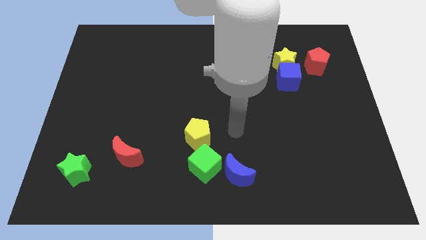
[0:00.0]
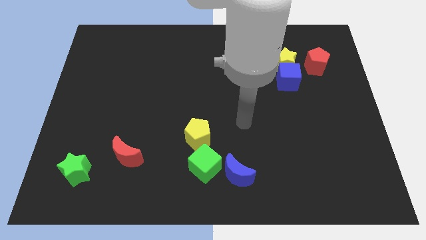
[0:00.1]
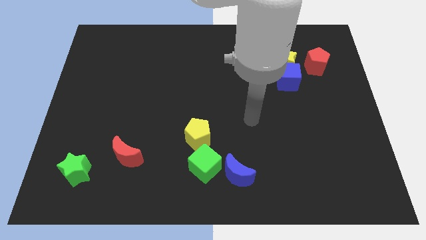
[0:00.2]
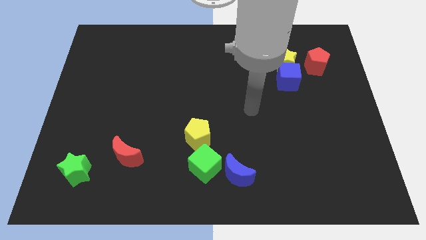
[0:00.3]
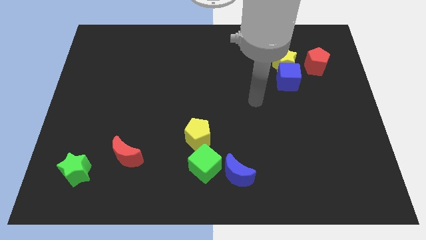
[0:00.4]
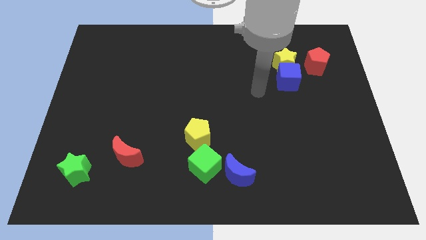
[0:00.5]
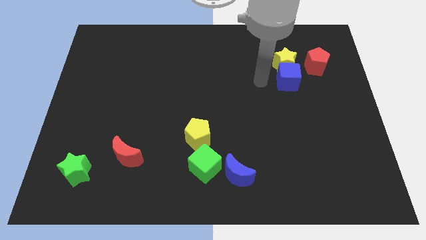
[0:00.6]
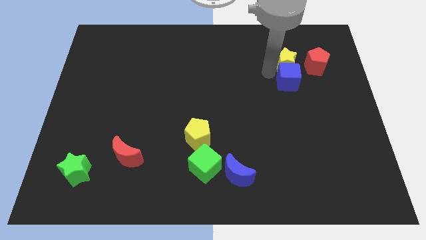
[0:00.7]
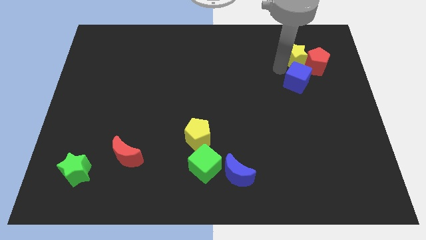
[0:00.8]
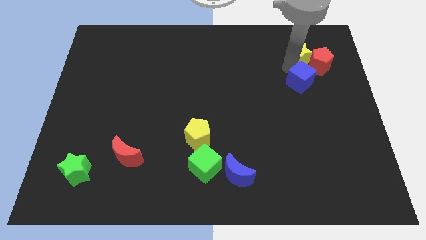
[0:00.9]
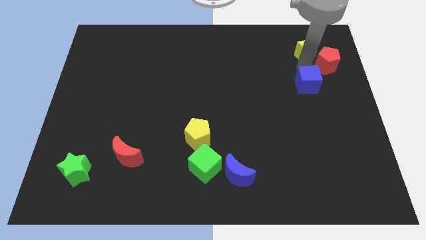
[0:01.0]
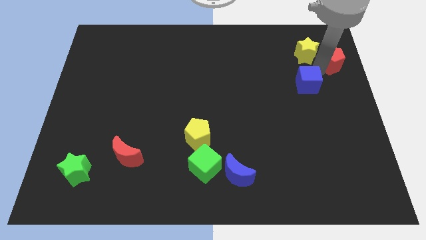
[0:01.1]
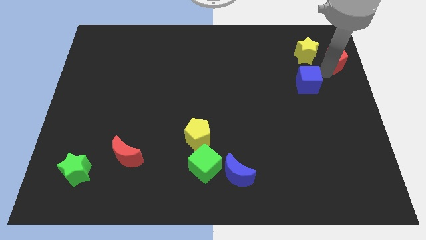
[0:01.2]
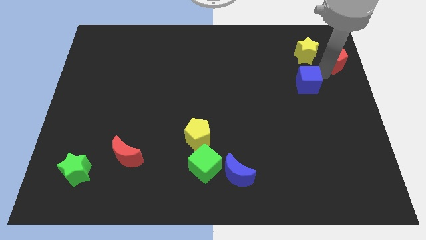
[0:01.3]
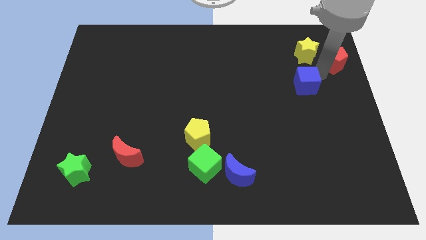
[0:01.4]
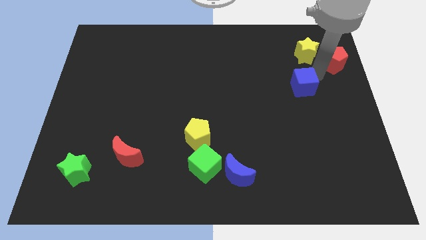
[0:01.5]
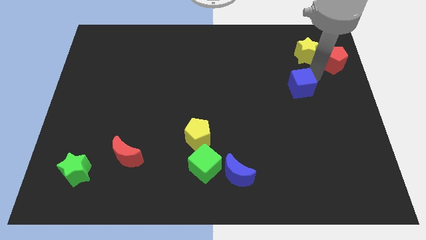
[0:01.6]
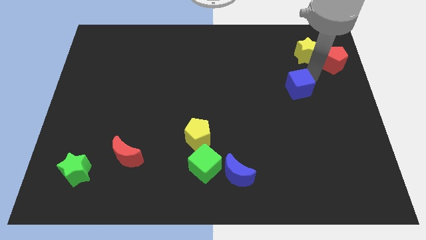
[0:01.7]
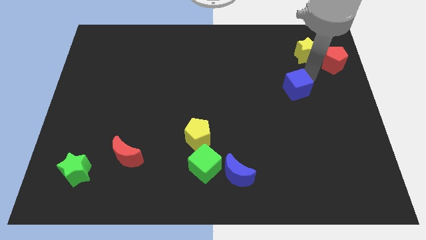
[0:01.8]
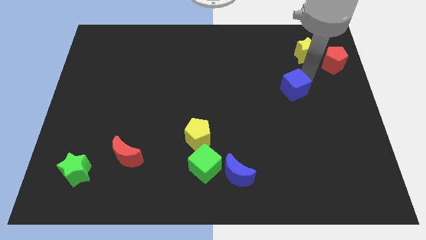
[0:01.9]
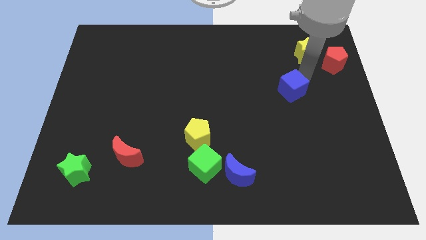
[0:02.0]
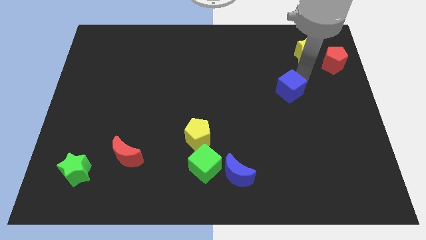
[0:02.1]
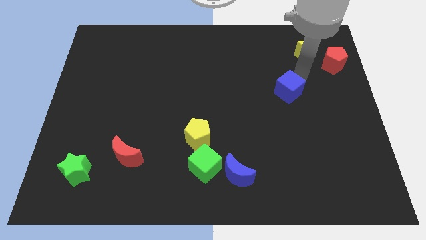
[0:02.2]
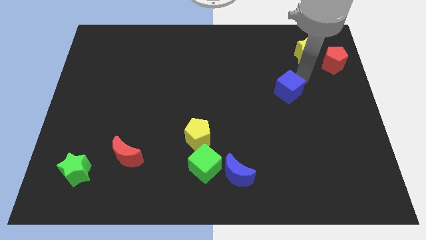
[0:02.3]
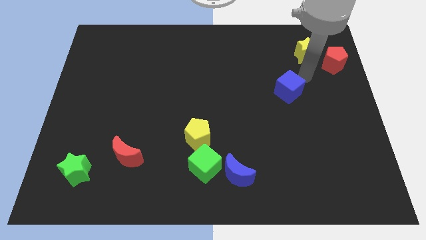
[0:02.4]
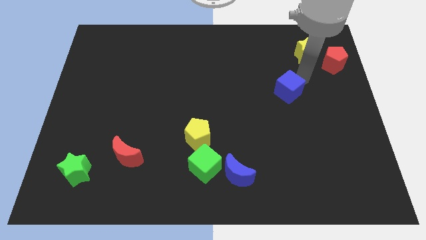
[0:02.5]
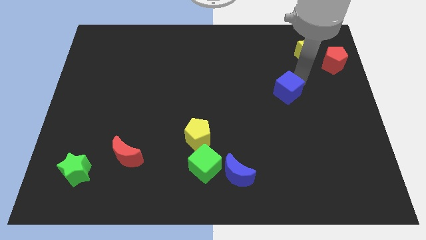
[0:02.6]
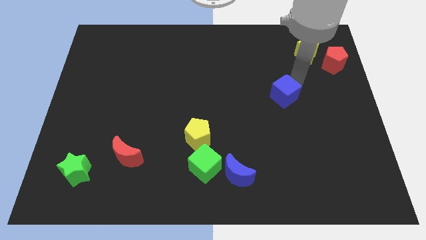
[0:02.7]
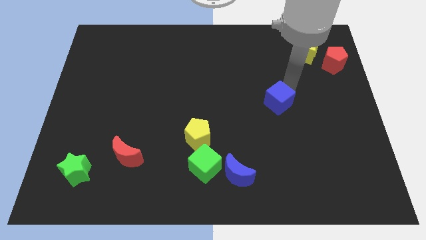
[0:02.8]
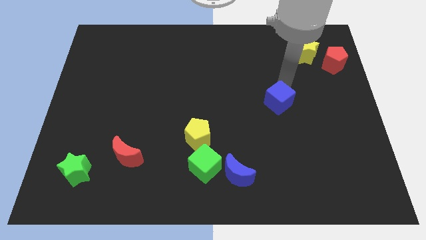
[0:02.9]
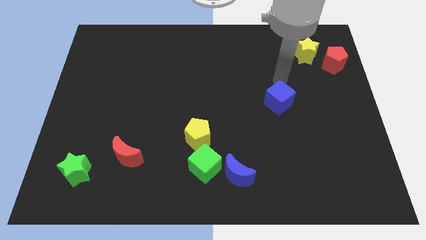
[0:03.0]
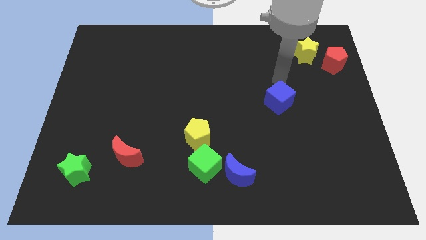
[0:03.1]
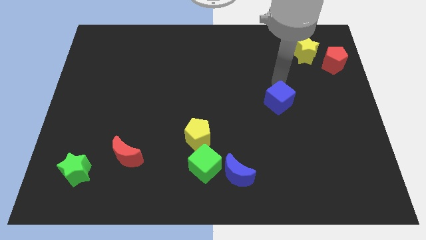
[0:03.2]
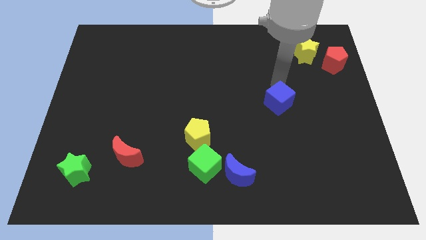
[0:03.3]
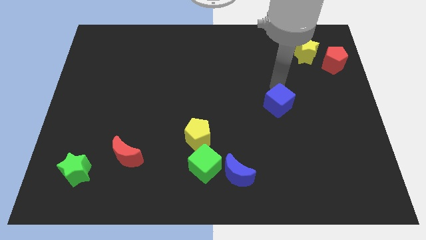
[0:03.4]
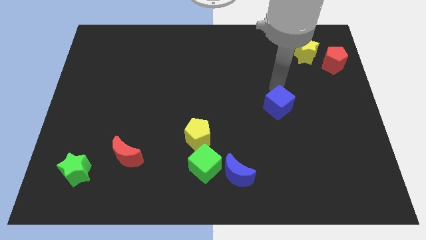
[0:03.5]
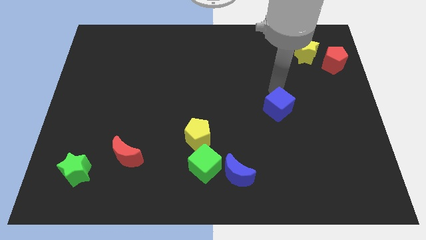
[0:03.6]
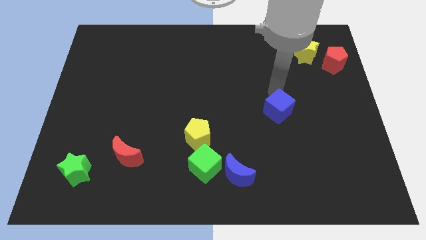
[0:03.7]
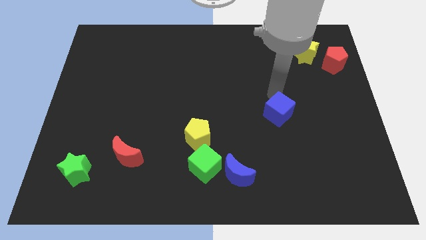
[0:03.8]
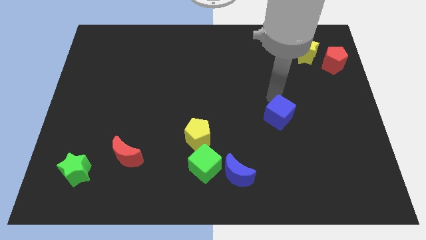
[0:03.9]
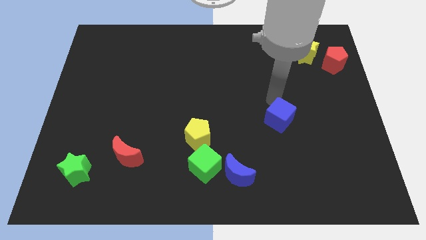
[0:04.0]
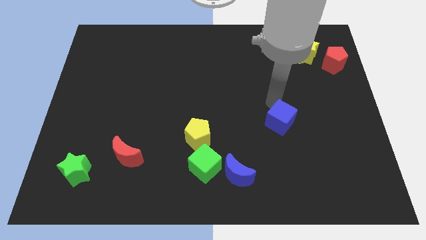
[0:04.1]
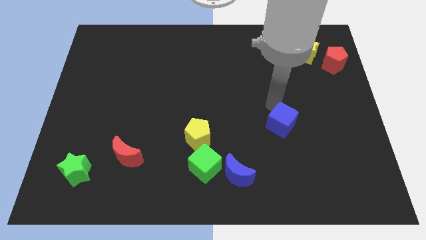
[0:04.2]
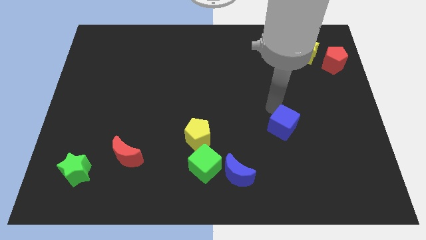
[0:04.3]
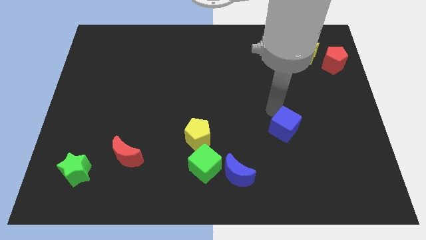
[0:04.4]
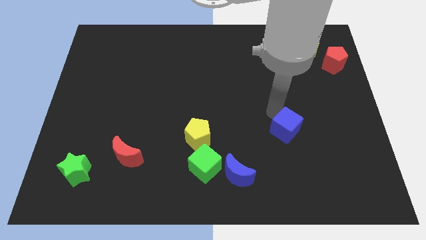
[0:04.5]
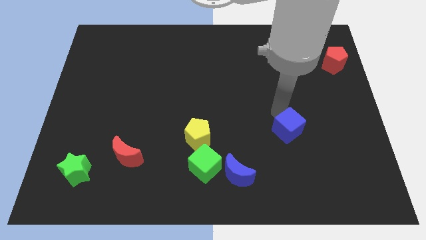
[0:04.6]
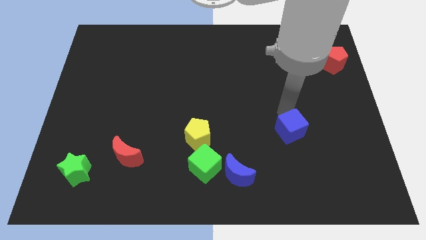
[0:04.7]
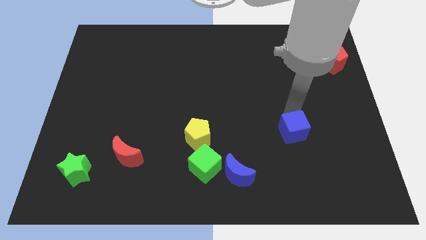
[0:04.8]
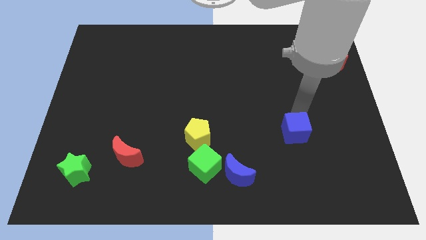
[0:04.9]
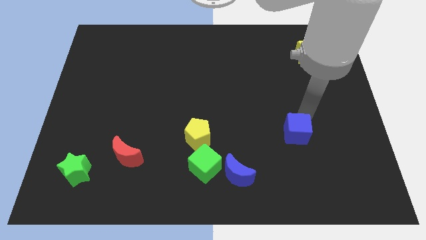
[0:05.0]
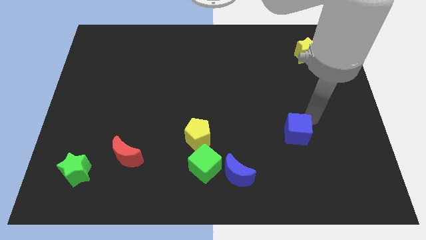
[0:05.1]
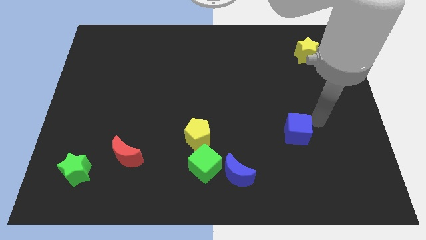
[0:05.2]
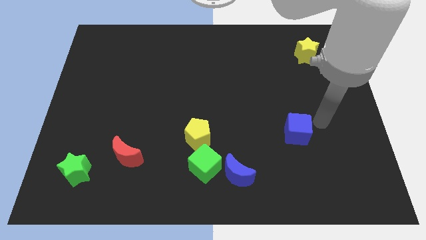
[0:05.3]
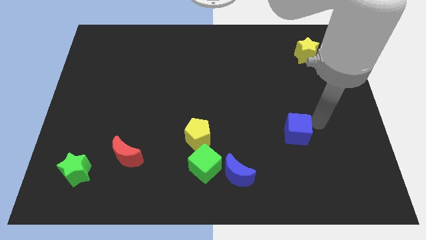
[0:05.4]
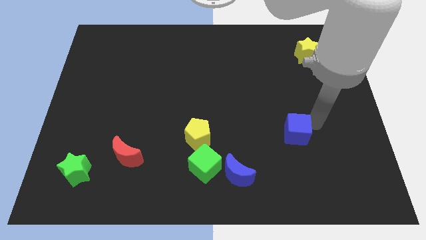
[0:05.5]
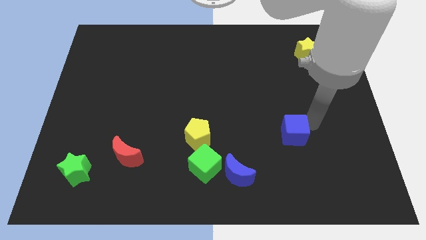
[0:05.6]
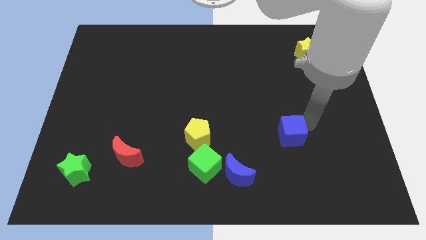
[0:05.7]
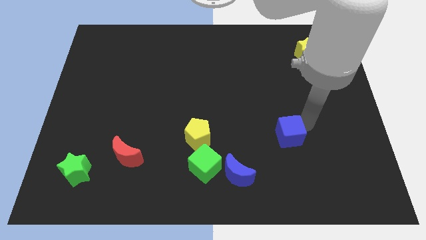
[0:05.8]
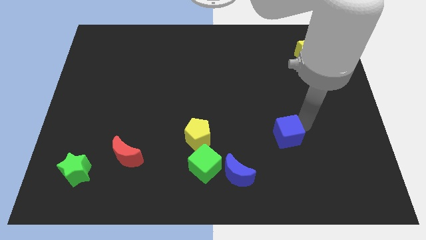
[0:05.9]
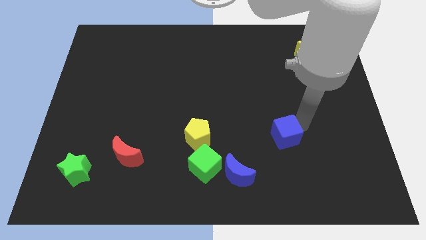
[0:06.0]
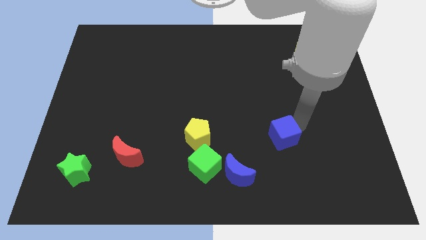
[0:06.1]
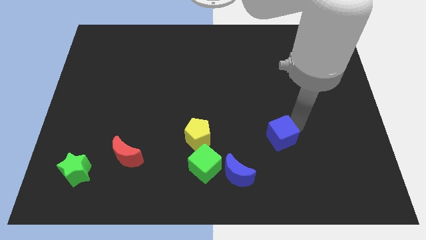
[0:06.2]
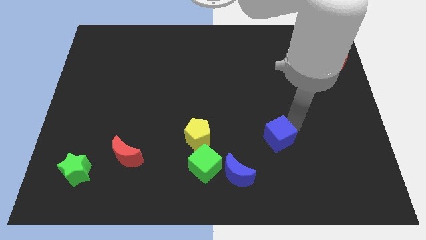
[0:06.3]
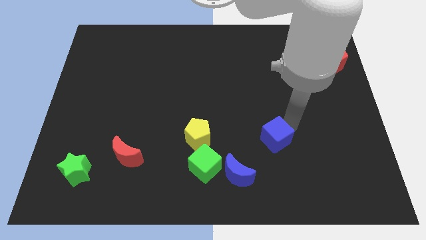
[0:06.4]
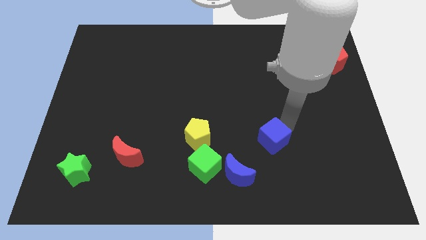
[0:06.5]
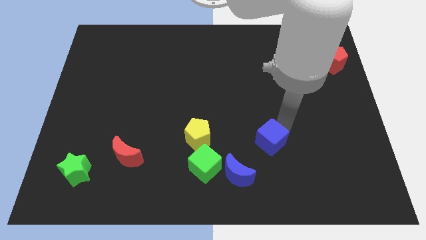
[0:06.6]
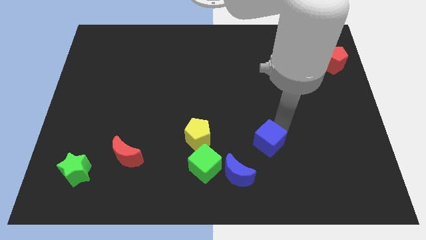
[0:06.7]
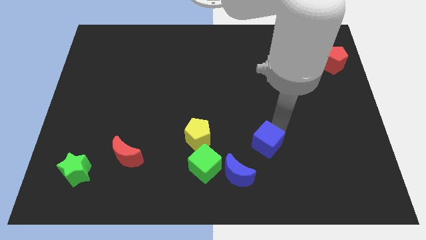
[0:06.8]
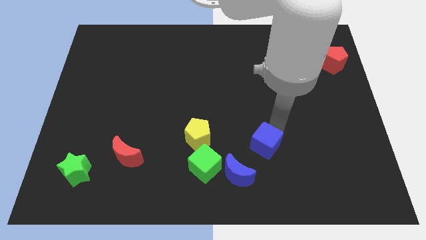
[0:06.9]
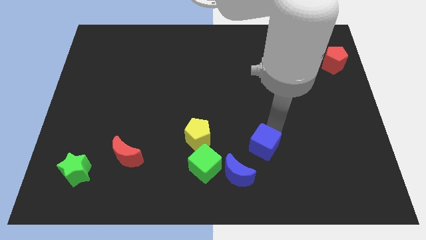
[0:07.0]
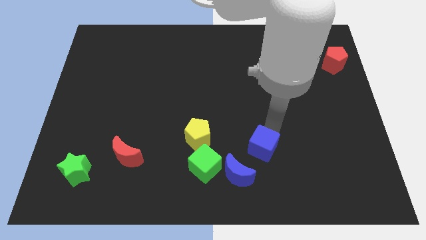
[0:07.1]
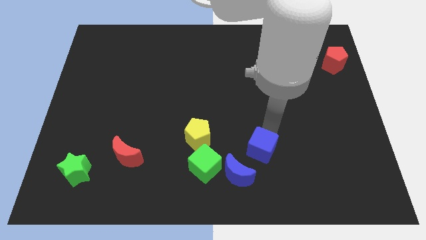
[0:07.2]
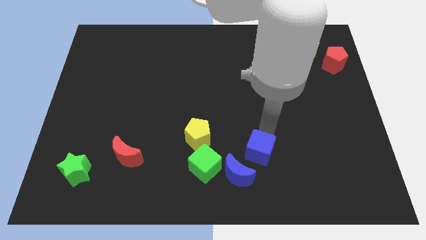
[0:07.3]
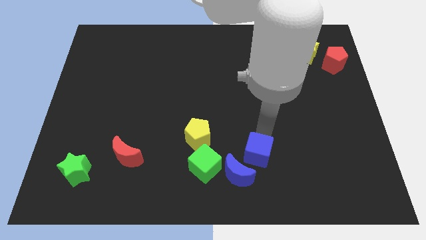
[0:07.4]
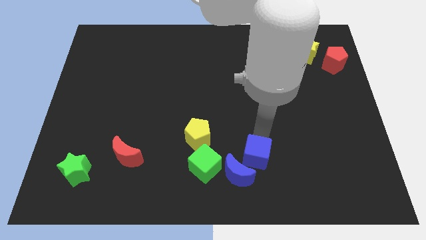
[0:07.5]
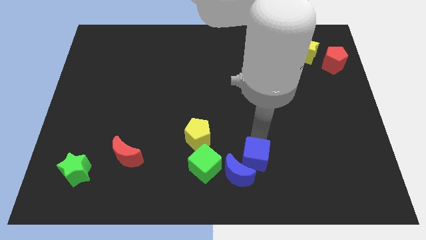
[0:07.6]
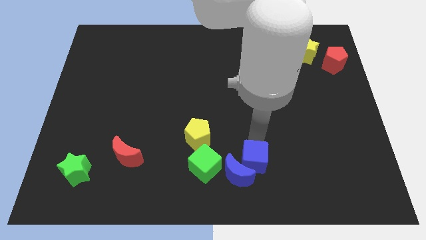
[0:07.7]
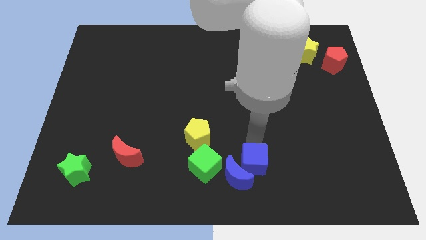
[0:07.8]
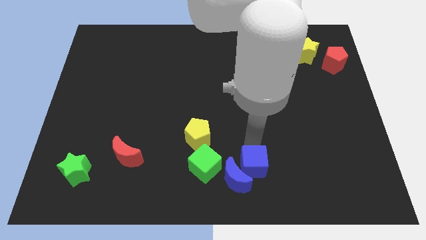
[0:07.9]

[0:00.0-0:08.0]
put the blue cube to the bottom
